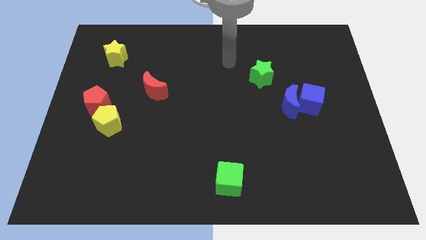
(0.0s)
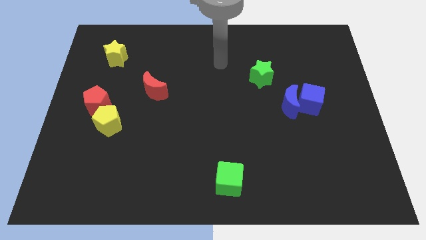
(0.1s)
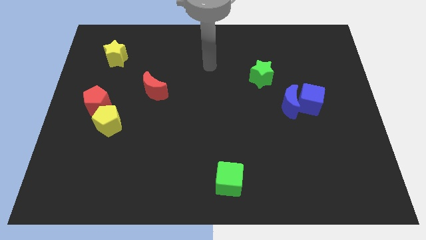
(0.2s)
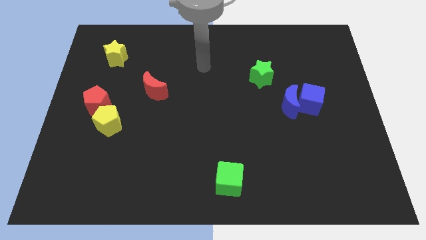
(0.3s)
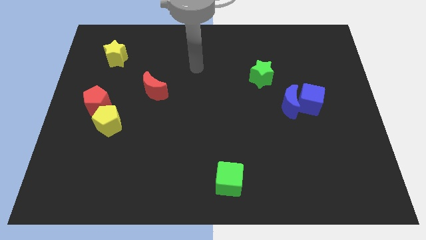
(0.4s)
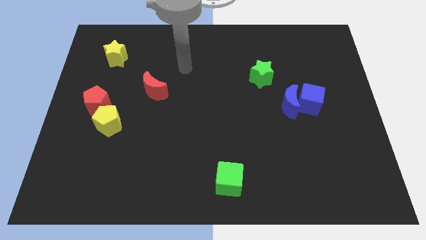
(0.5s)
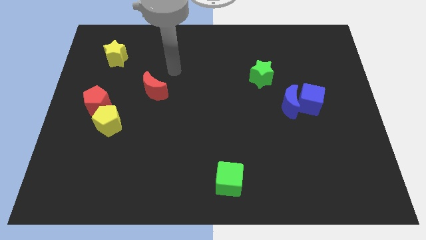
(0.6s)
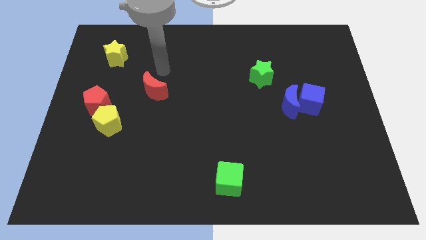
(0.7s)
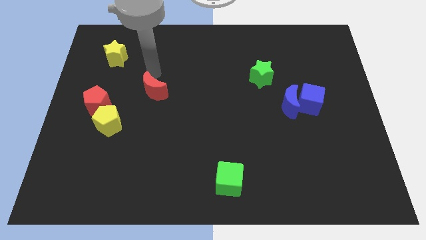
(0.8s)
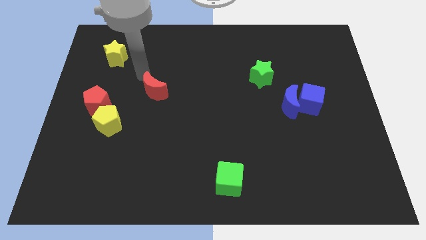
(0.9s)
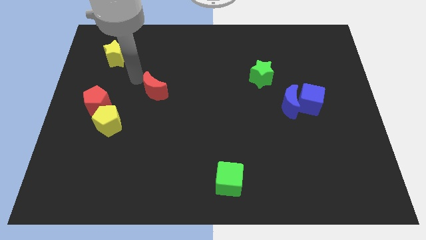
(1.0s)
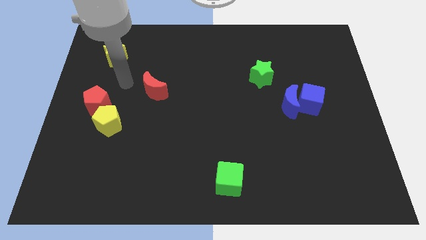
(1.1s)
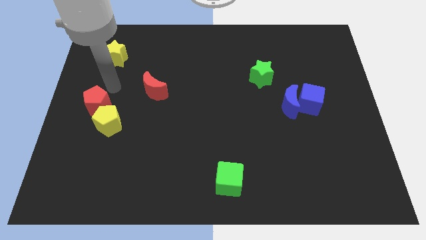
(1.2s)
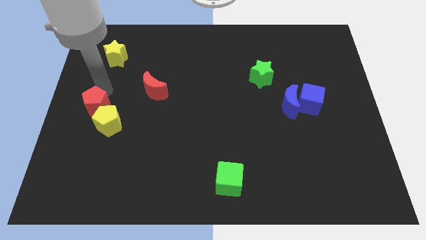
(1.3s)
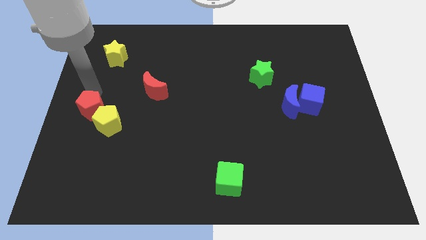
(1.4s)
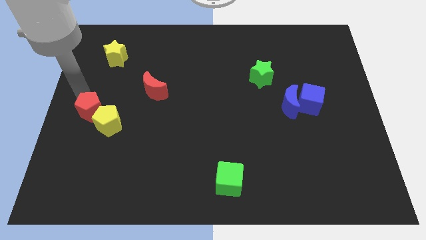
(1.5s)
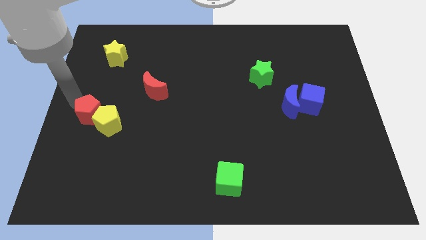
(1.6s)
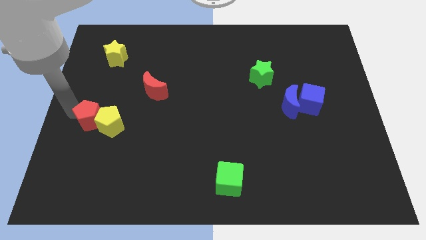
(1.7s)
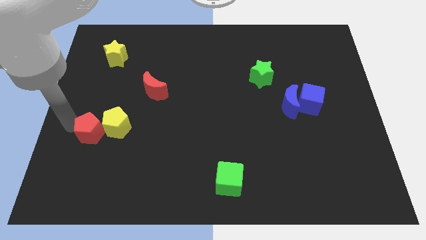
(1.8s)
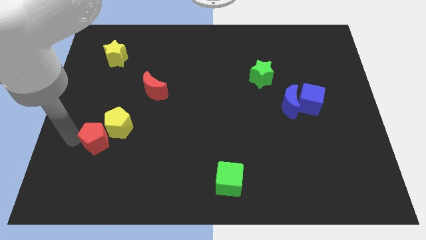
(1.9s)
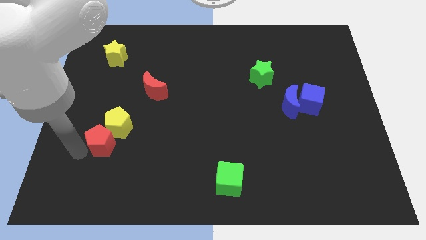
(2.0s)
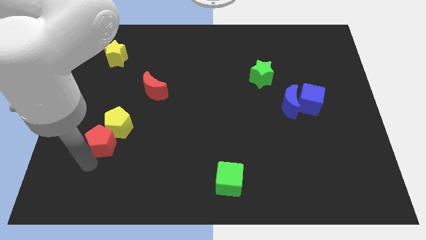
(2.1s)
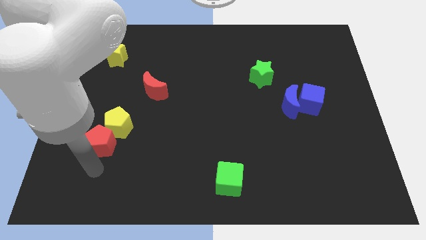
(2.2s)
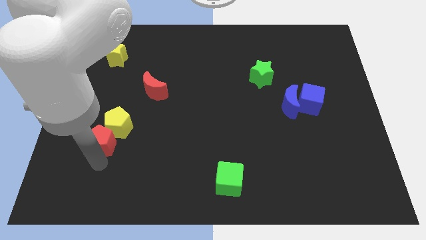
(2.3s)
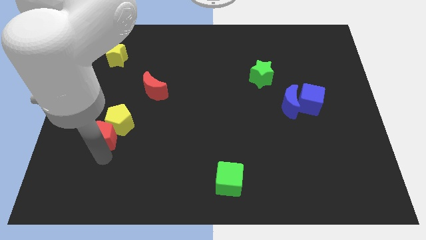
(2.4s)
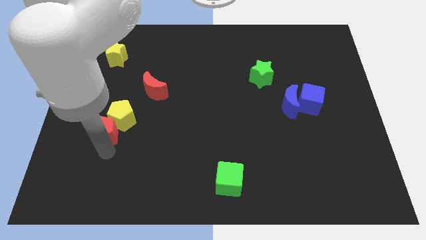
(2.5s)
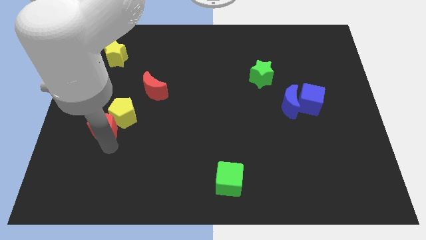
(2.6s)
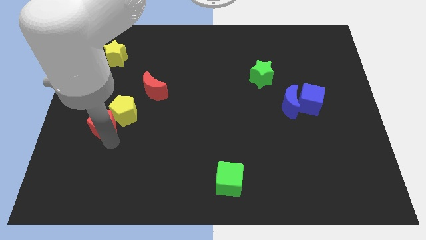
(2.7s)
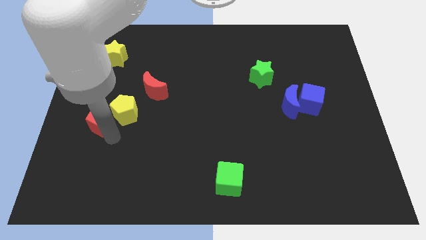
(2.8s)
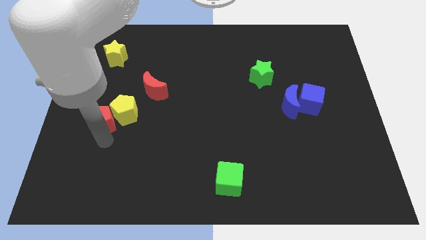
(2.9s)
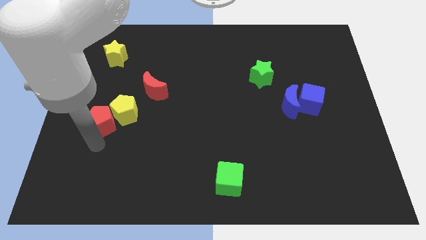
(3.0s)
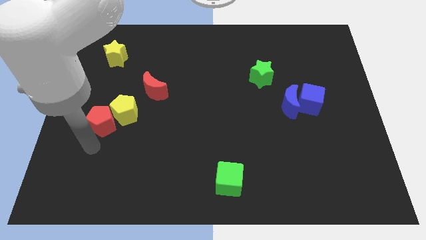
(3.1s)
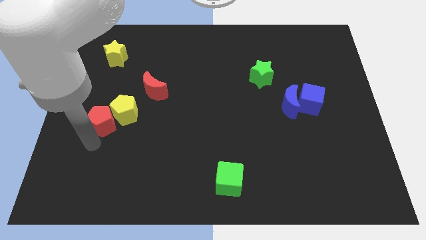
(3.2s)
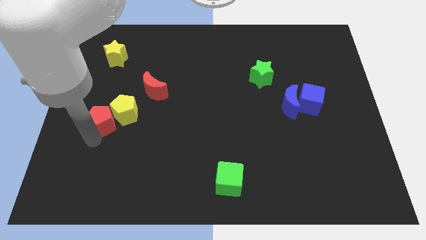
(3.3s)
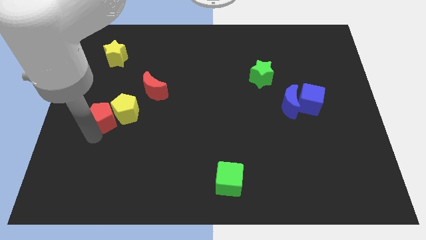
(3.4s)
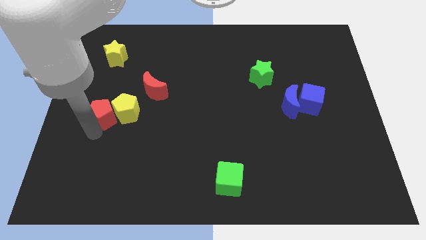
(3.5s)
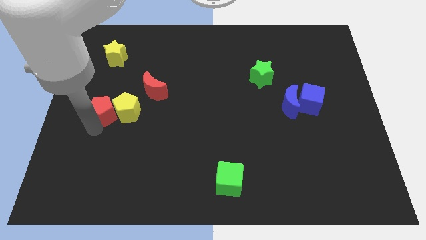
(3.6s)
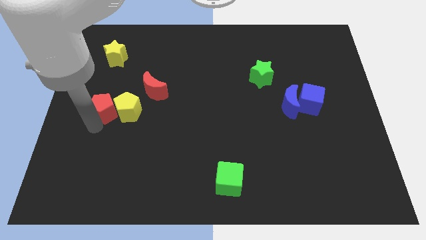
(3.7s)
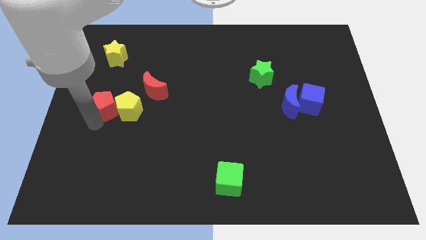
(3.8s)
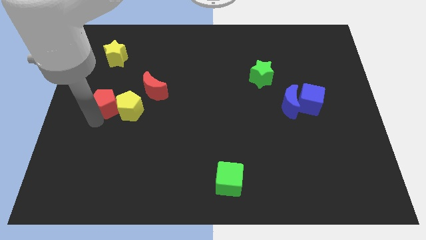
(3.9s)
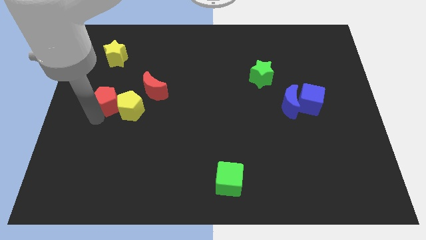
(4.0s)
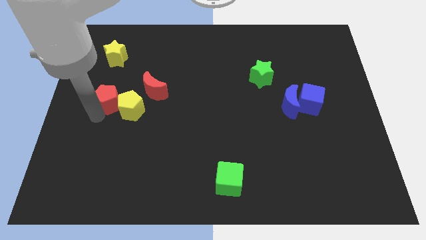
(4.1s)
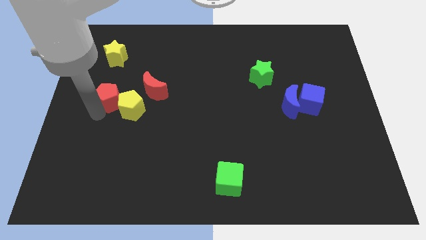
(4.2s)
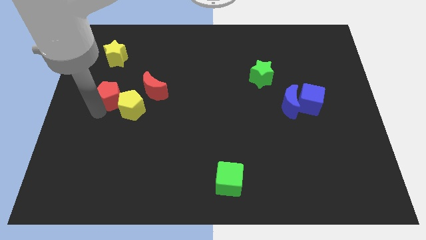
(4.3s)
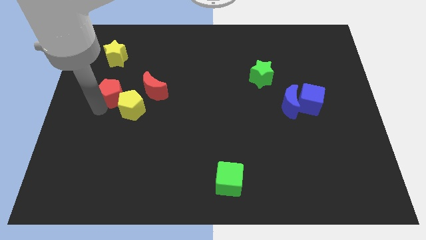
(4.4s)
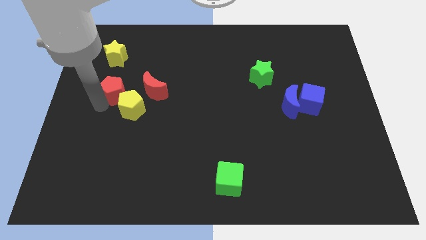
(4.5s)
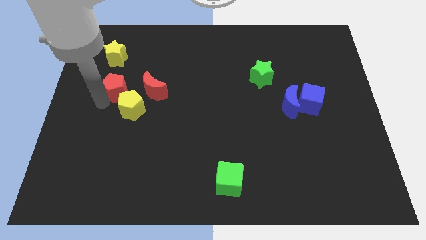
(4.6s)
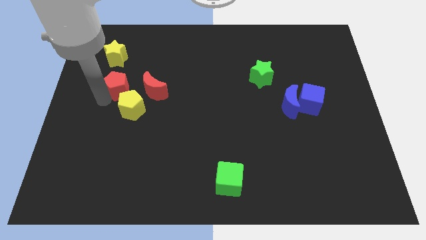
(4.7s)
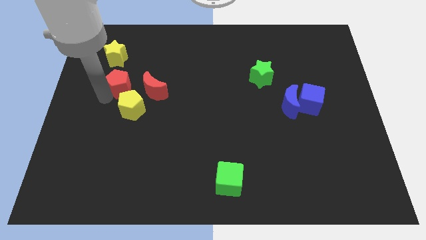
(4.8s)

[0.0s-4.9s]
move the red pentagon a little bit up and to the right

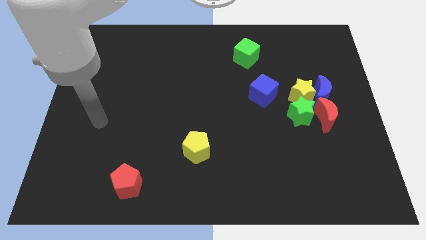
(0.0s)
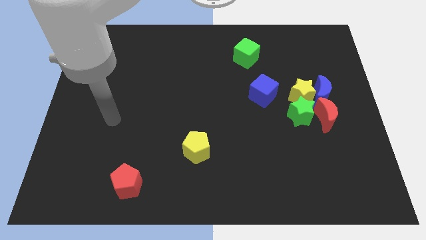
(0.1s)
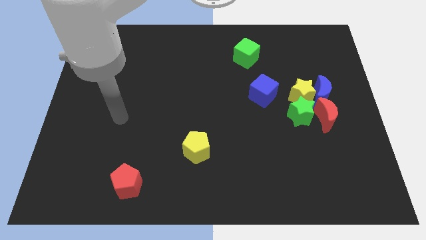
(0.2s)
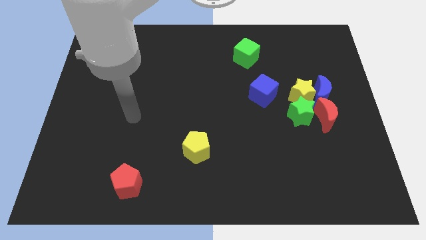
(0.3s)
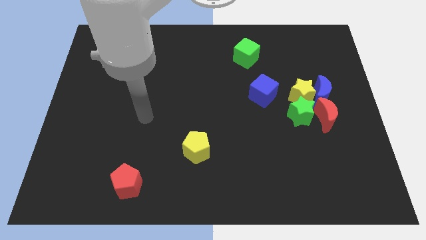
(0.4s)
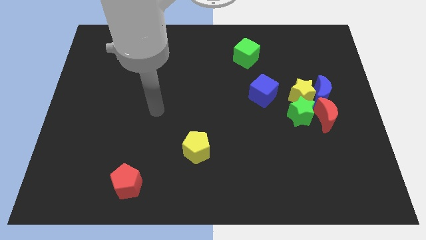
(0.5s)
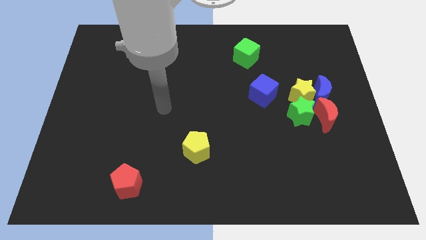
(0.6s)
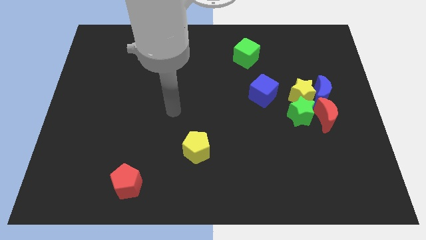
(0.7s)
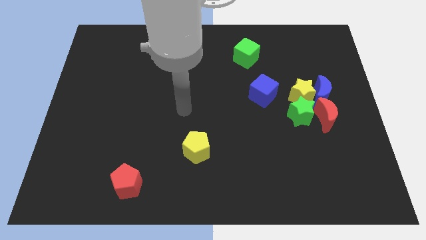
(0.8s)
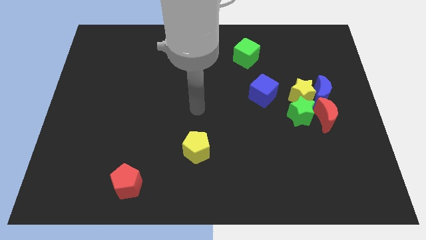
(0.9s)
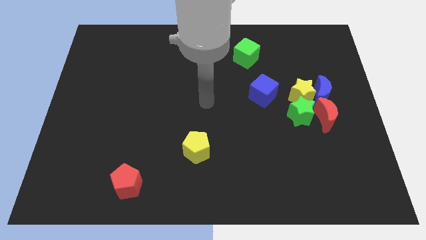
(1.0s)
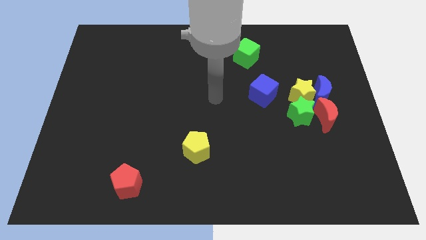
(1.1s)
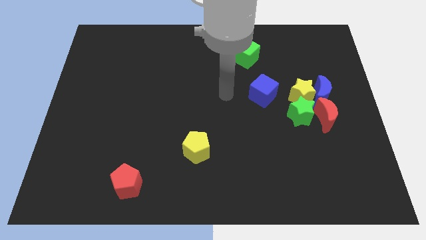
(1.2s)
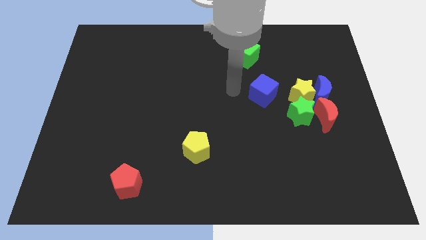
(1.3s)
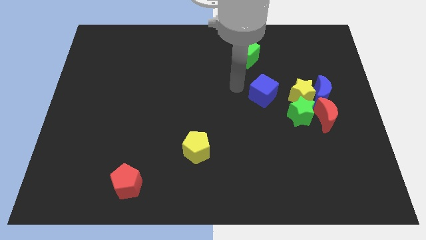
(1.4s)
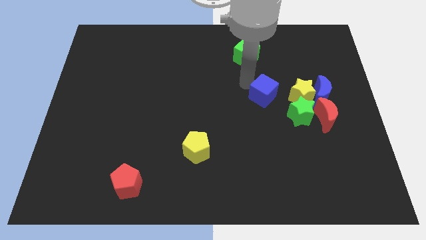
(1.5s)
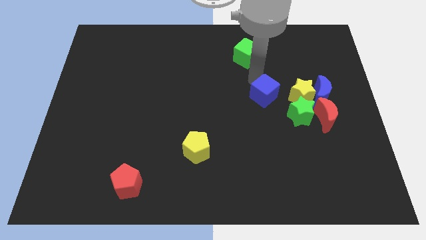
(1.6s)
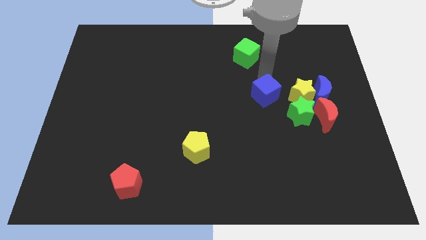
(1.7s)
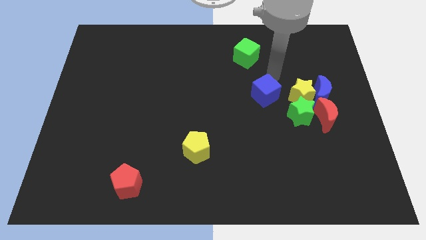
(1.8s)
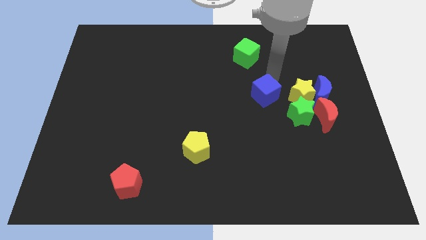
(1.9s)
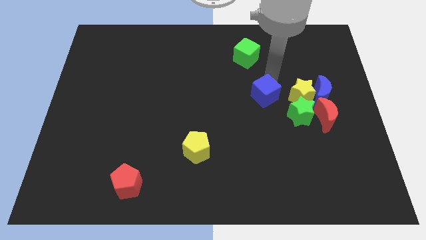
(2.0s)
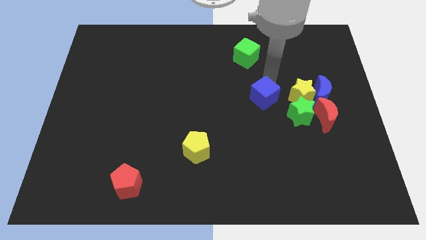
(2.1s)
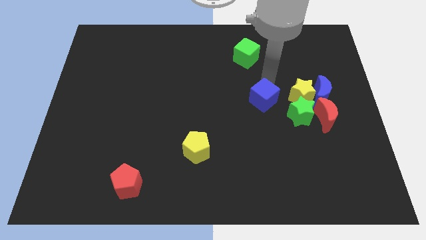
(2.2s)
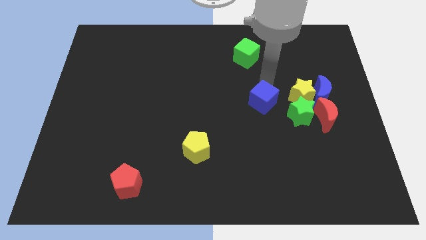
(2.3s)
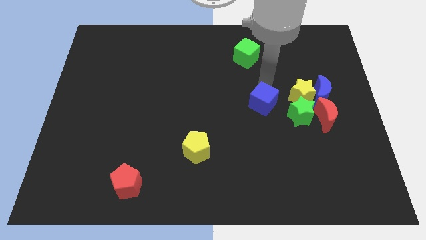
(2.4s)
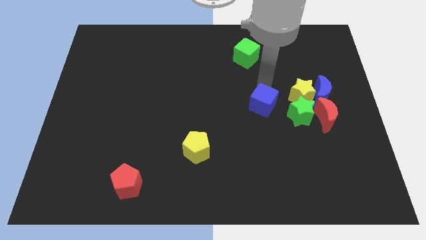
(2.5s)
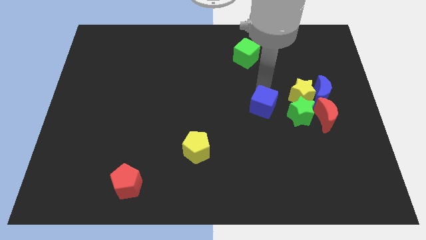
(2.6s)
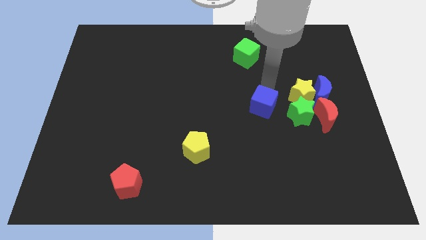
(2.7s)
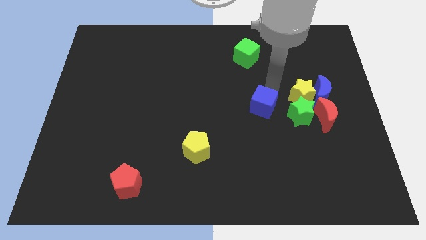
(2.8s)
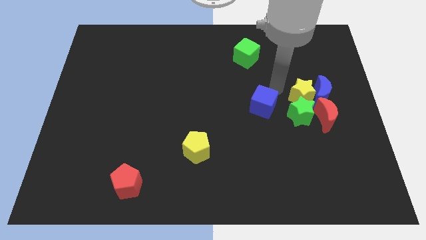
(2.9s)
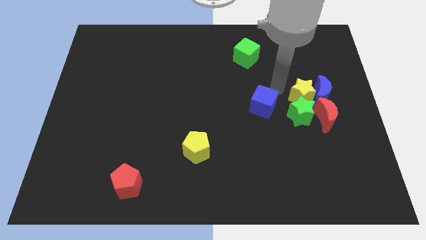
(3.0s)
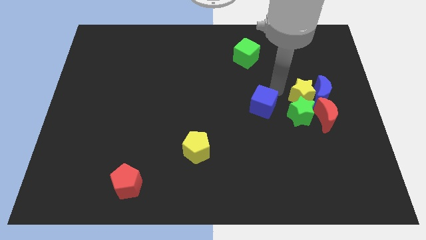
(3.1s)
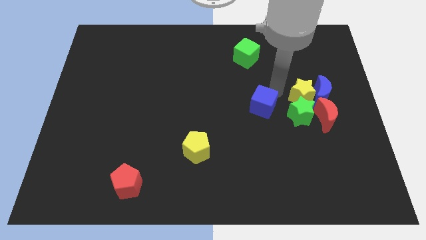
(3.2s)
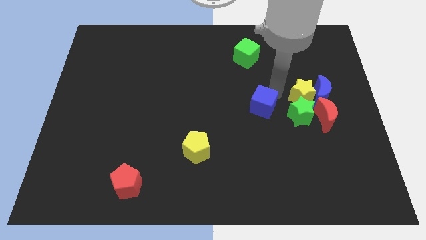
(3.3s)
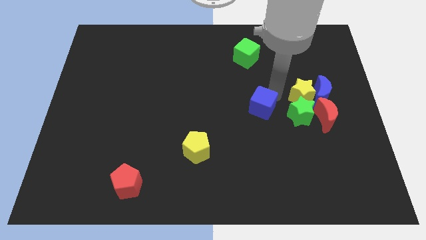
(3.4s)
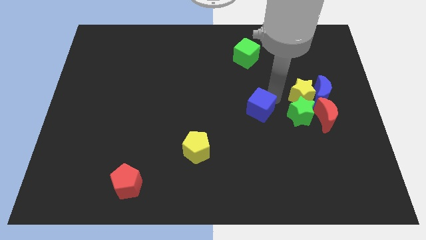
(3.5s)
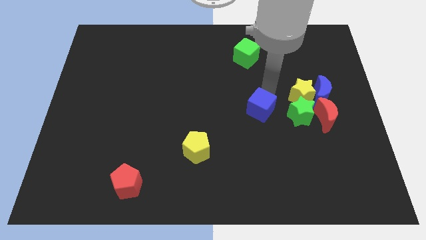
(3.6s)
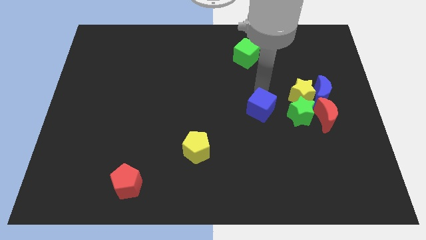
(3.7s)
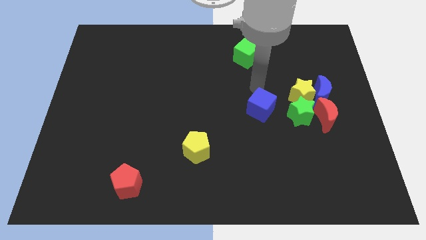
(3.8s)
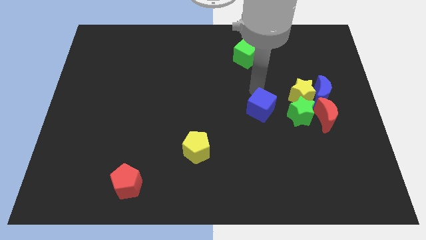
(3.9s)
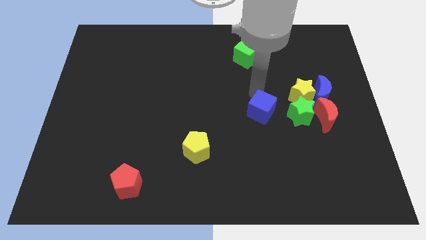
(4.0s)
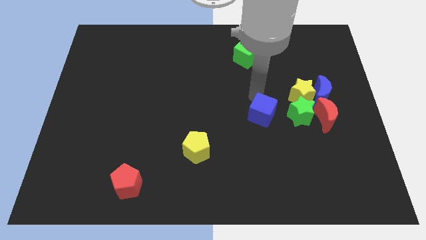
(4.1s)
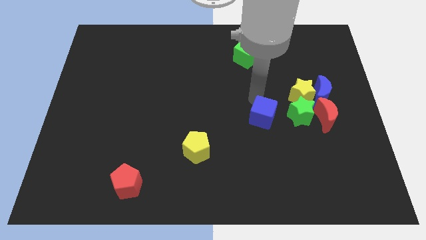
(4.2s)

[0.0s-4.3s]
slide the blue cube a little down
